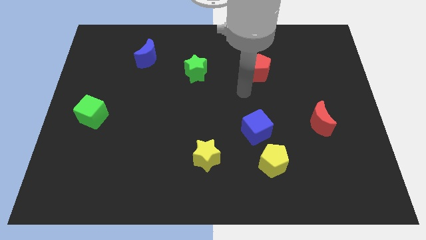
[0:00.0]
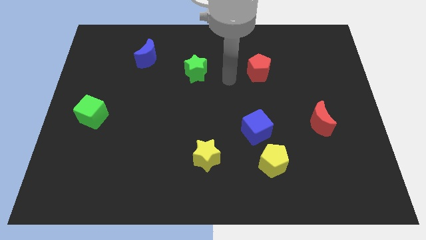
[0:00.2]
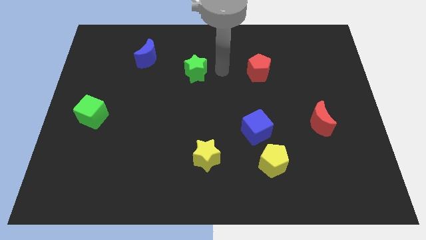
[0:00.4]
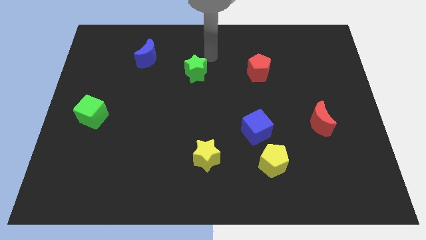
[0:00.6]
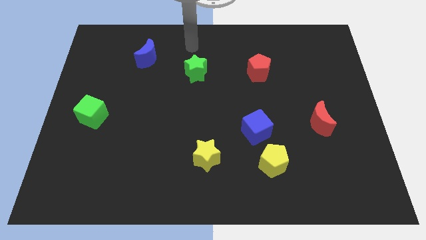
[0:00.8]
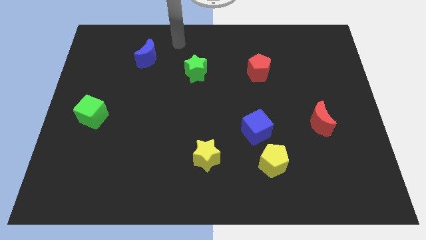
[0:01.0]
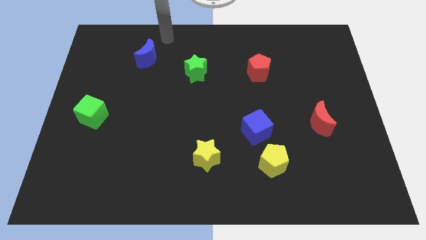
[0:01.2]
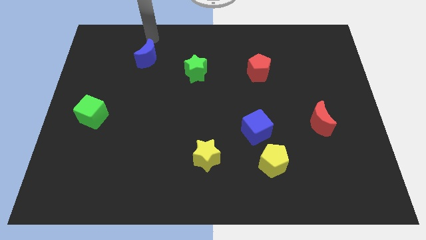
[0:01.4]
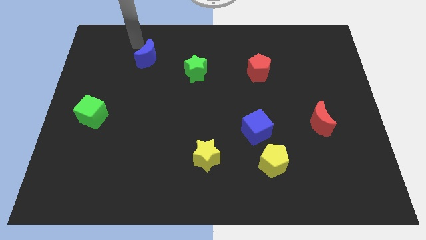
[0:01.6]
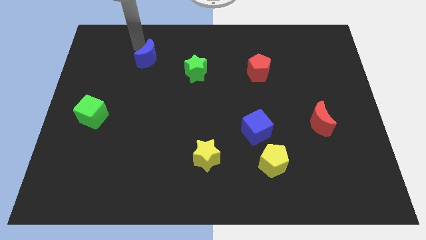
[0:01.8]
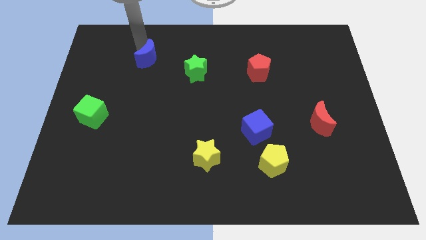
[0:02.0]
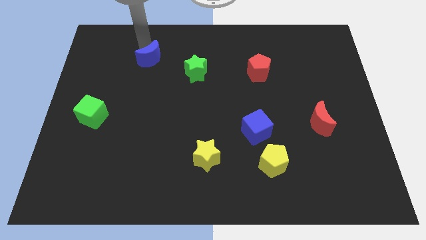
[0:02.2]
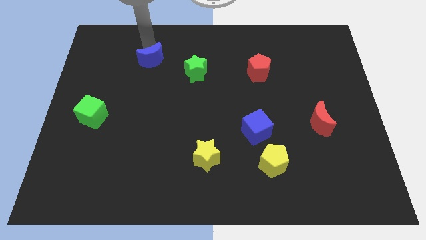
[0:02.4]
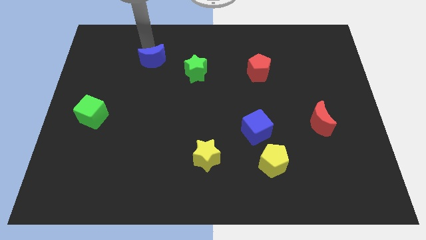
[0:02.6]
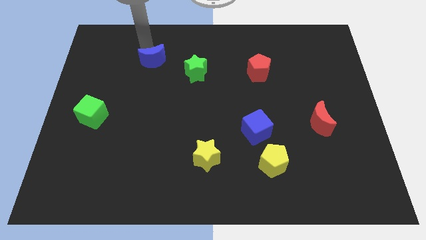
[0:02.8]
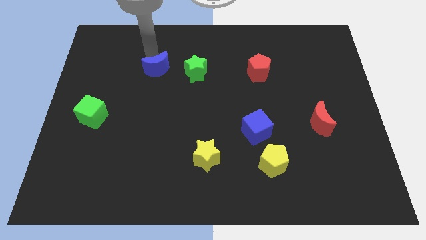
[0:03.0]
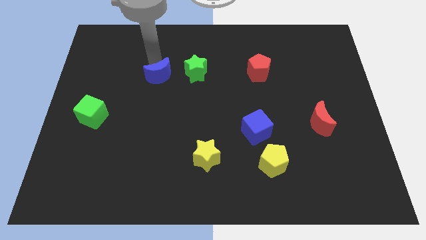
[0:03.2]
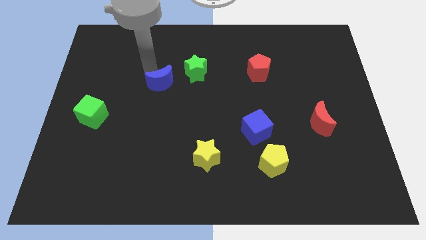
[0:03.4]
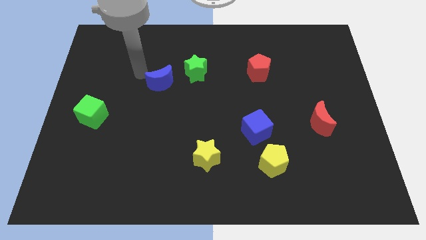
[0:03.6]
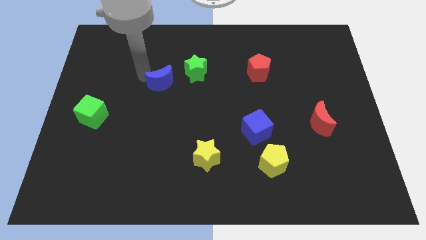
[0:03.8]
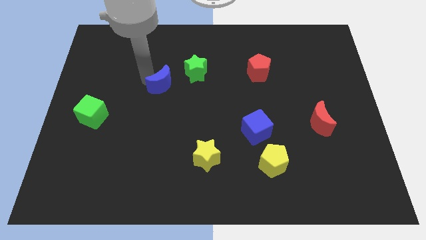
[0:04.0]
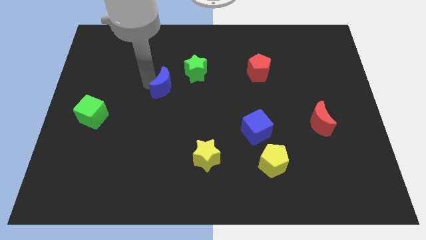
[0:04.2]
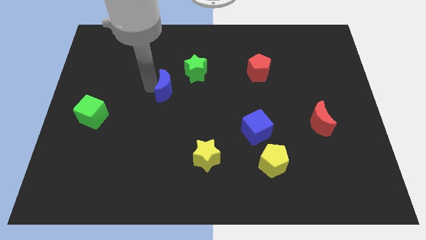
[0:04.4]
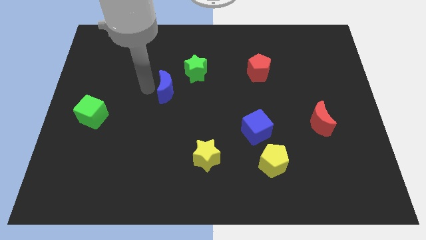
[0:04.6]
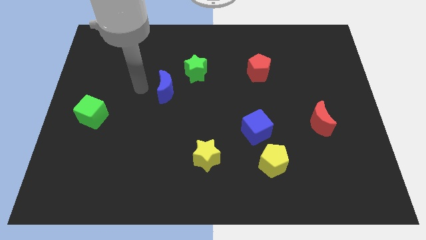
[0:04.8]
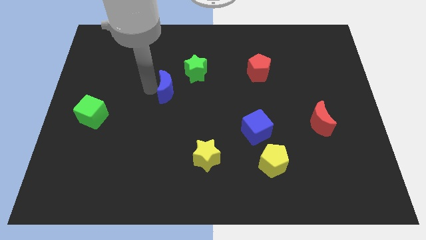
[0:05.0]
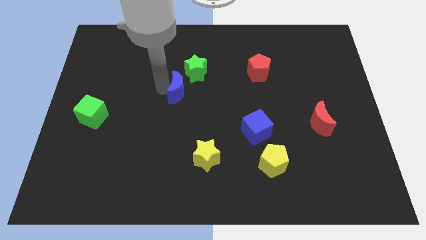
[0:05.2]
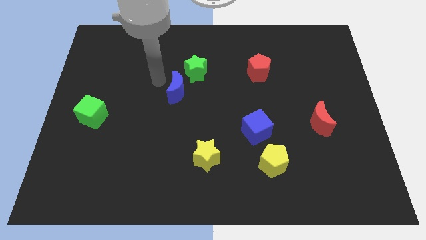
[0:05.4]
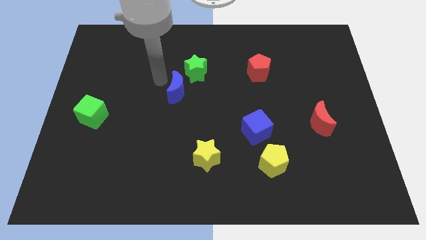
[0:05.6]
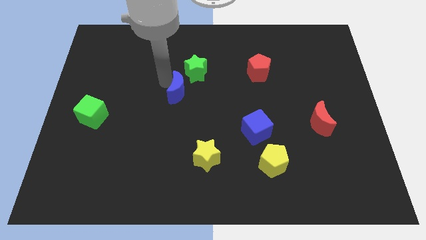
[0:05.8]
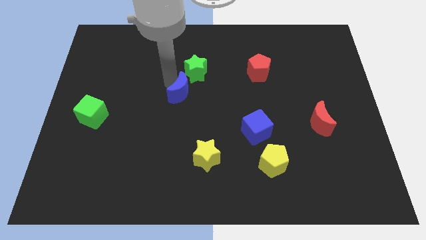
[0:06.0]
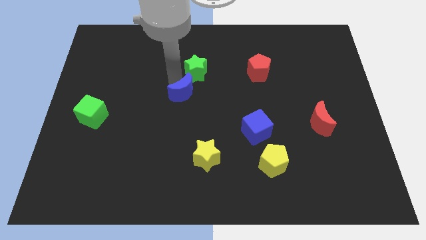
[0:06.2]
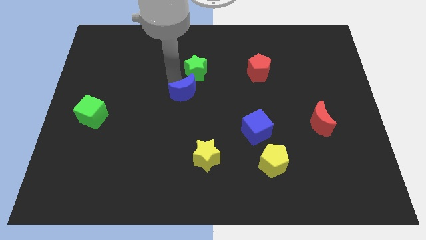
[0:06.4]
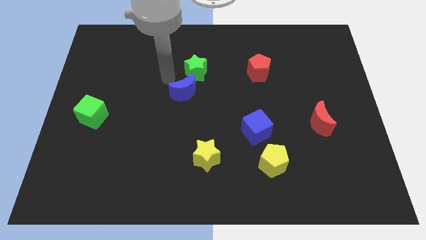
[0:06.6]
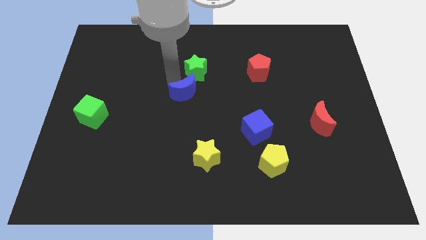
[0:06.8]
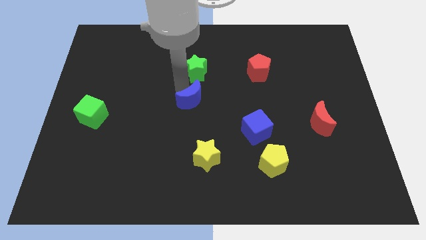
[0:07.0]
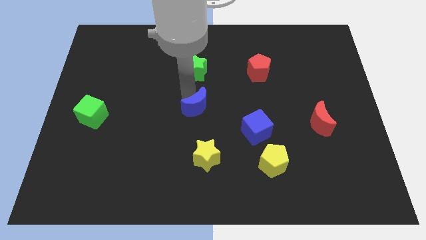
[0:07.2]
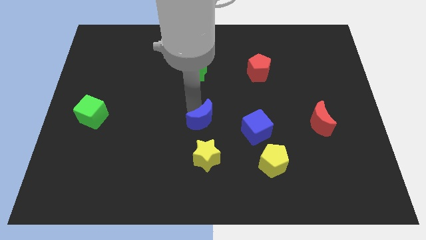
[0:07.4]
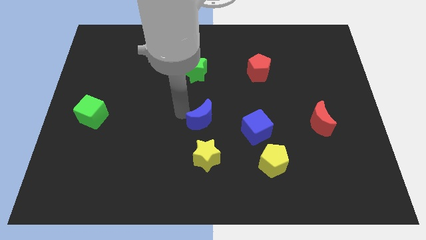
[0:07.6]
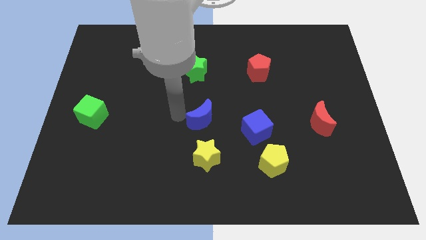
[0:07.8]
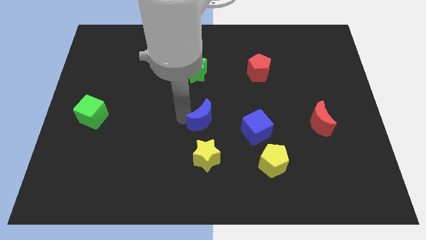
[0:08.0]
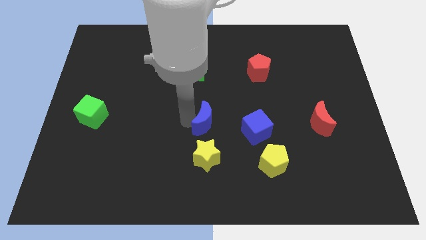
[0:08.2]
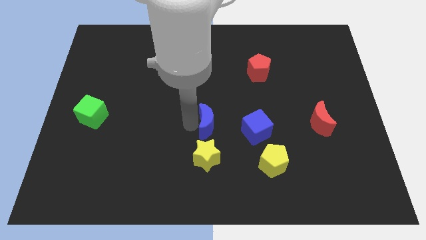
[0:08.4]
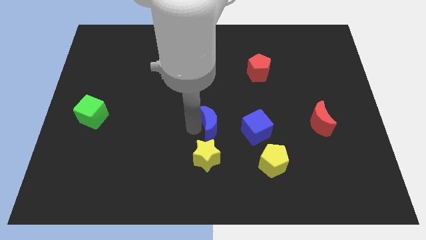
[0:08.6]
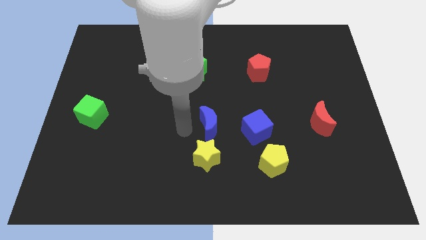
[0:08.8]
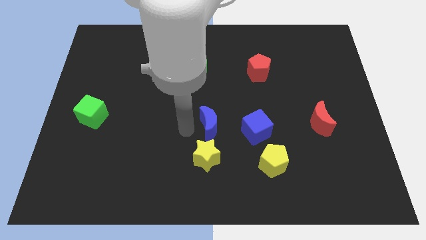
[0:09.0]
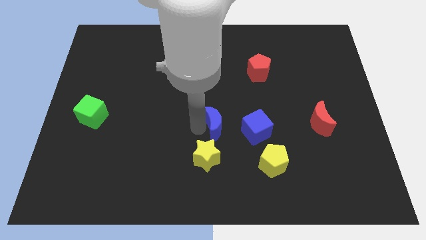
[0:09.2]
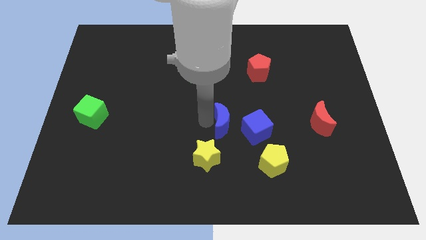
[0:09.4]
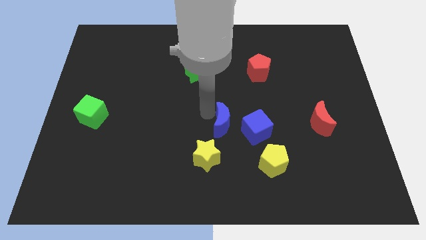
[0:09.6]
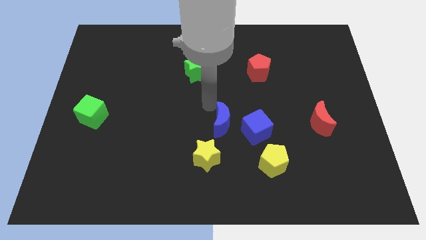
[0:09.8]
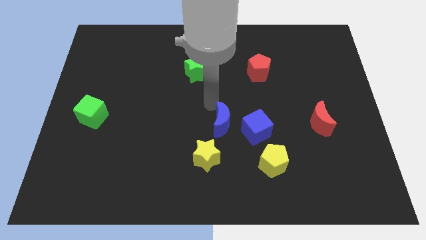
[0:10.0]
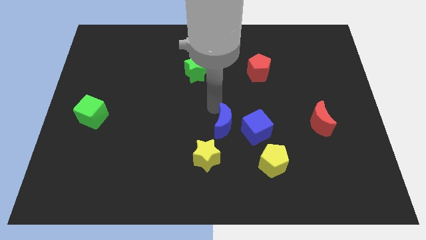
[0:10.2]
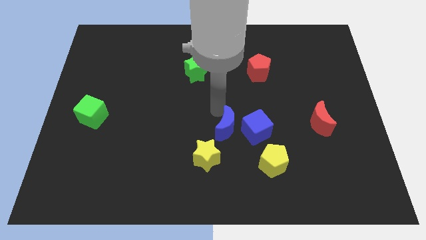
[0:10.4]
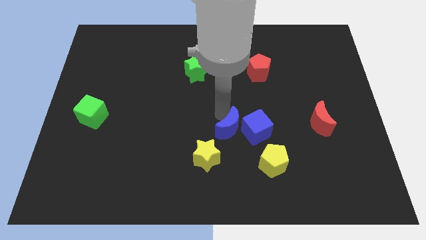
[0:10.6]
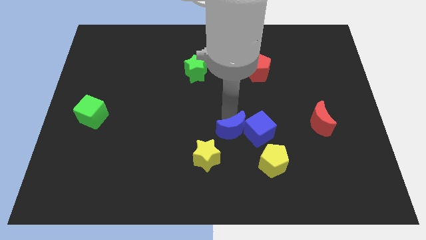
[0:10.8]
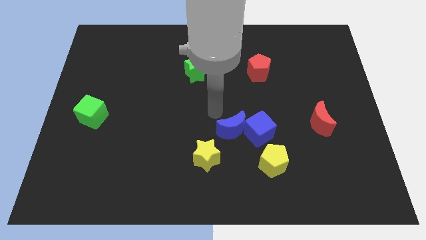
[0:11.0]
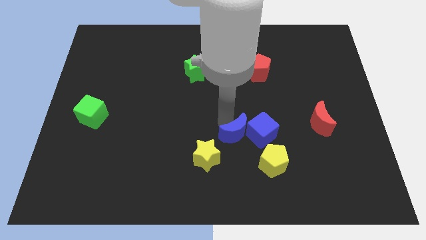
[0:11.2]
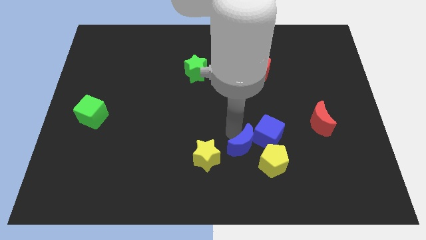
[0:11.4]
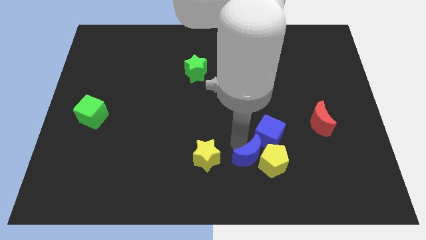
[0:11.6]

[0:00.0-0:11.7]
push the blue moon to the yellow pentagon

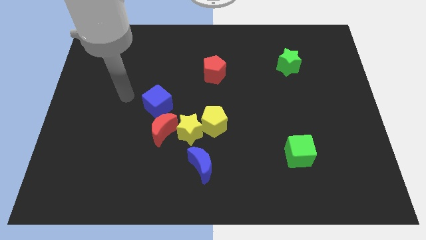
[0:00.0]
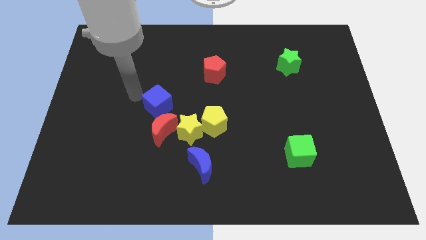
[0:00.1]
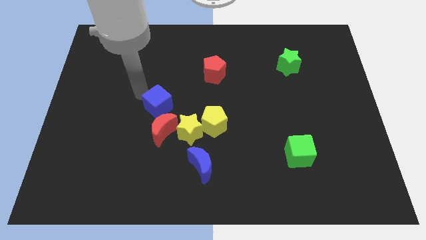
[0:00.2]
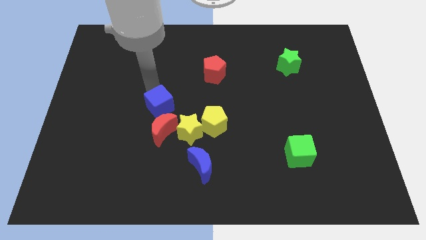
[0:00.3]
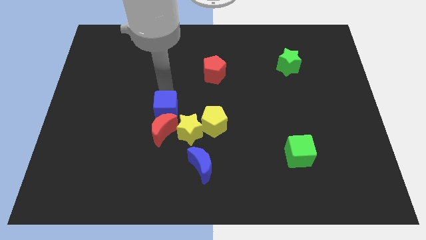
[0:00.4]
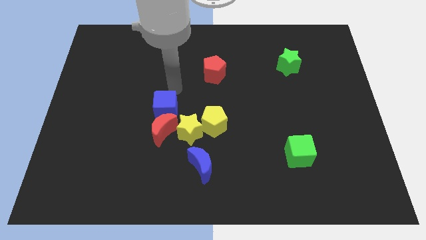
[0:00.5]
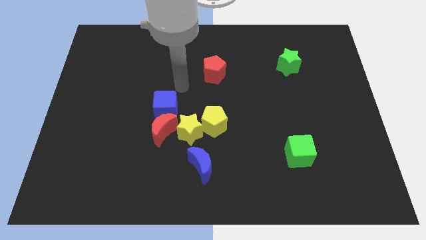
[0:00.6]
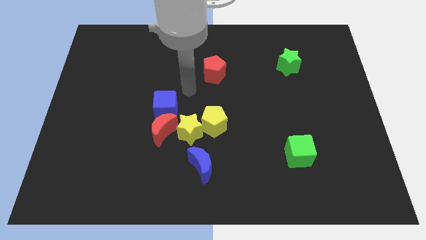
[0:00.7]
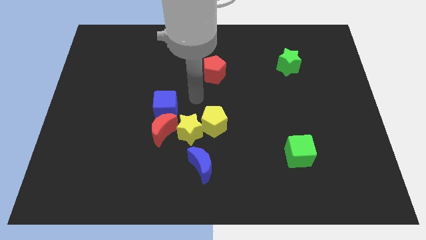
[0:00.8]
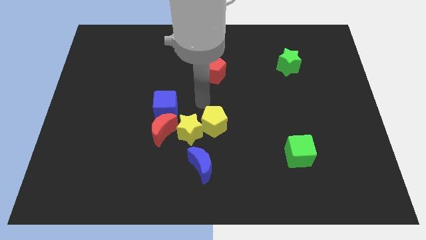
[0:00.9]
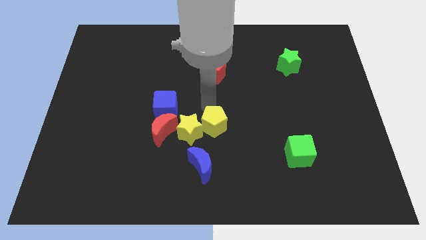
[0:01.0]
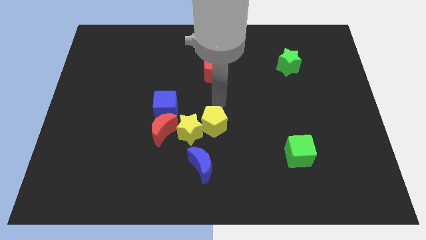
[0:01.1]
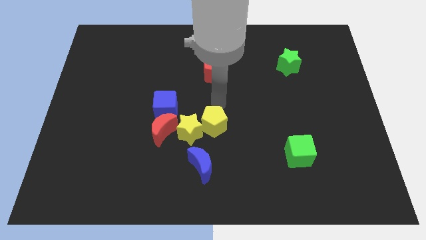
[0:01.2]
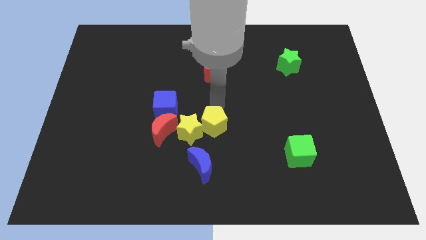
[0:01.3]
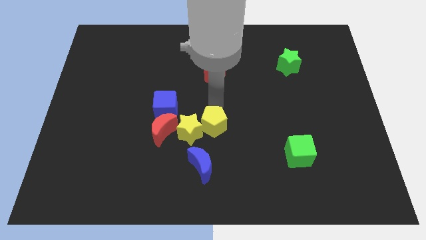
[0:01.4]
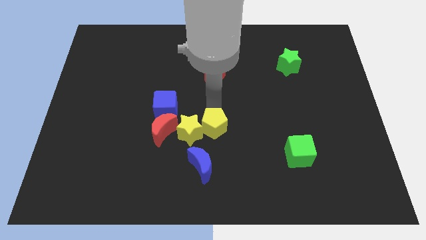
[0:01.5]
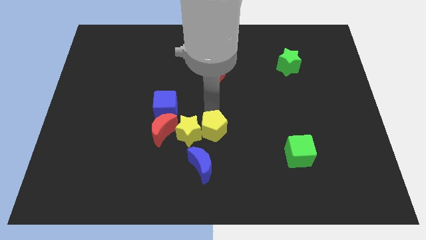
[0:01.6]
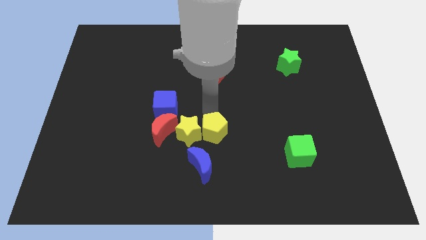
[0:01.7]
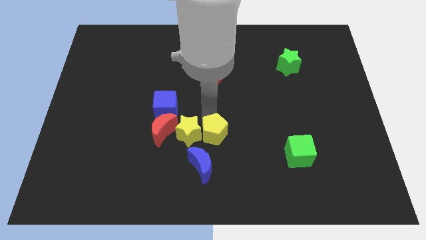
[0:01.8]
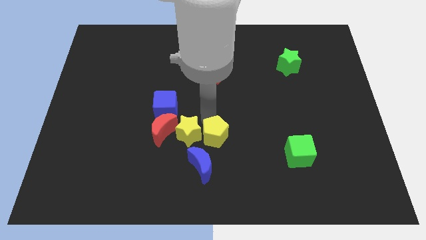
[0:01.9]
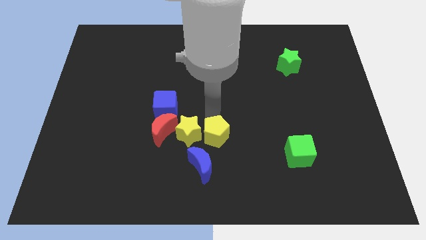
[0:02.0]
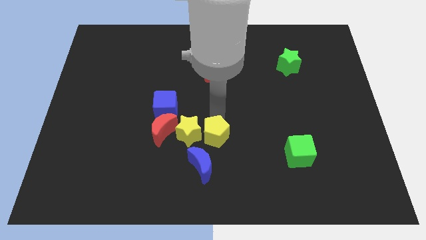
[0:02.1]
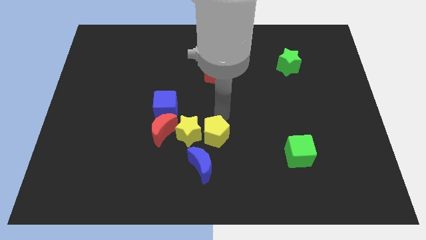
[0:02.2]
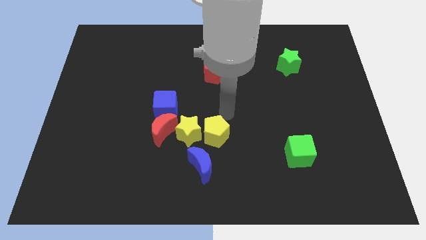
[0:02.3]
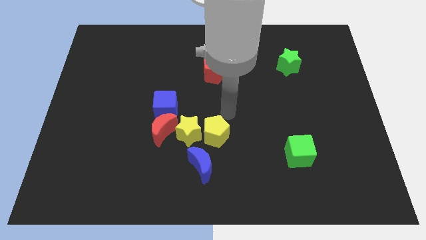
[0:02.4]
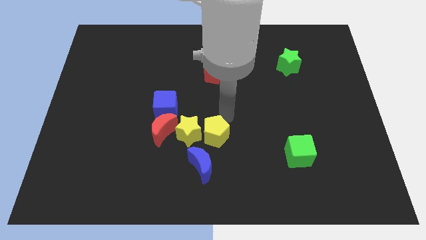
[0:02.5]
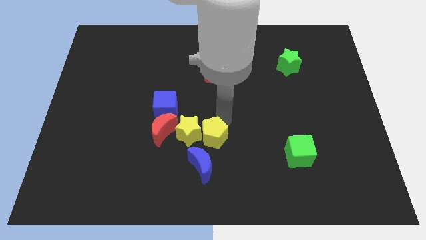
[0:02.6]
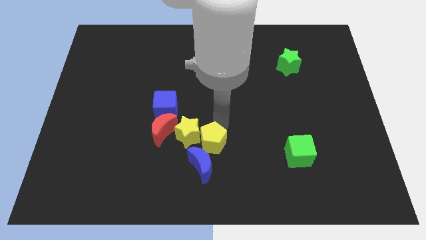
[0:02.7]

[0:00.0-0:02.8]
push the yellow pentagon close to the blue moon
